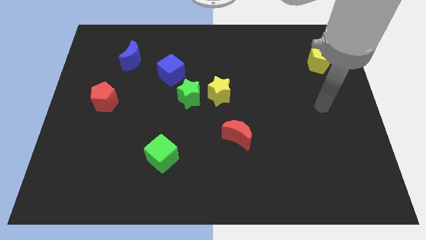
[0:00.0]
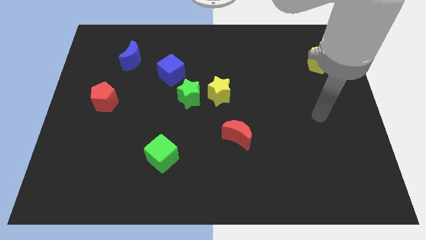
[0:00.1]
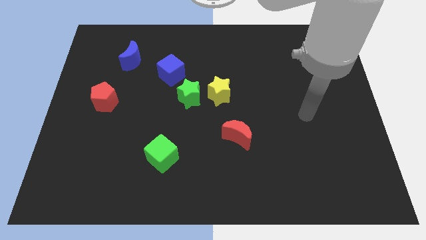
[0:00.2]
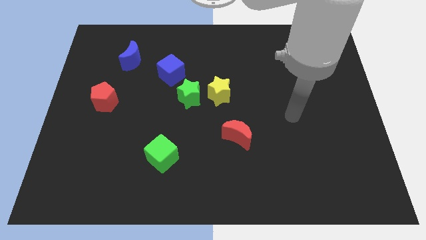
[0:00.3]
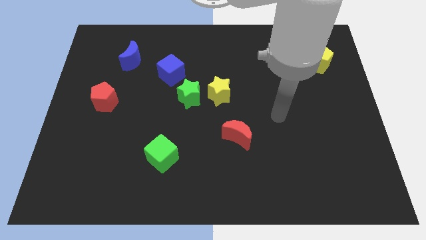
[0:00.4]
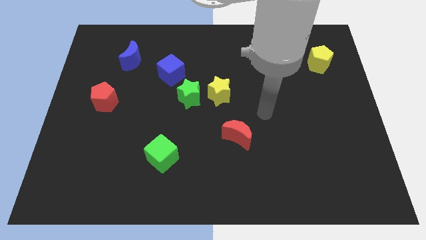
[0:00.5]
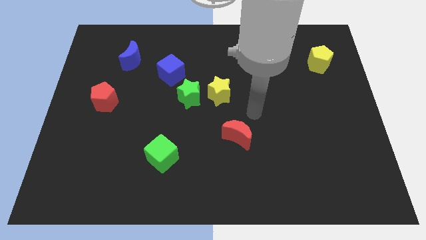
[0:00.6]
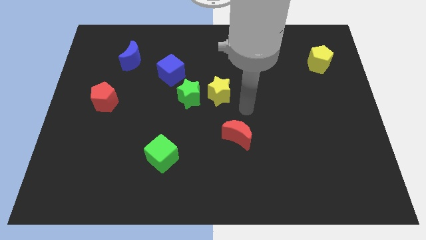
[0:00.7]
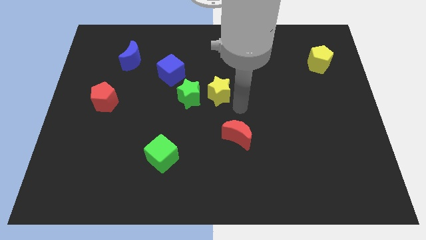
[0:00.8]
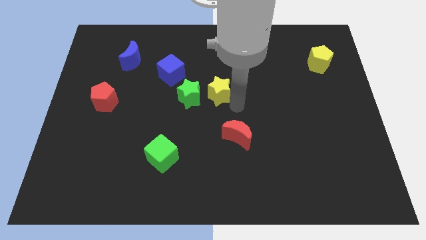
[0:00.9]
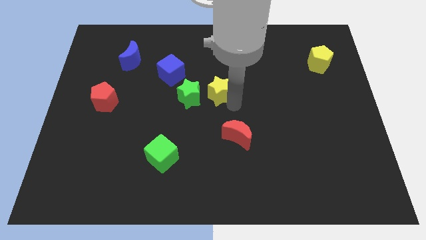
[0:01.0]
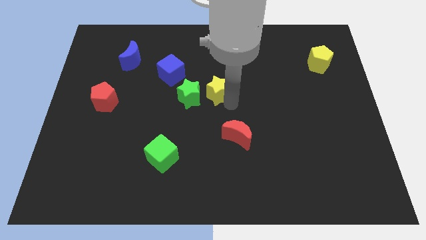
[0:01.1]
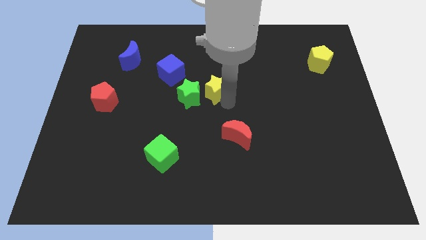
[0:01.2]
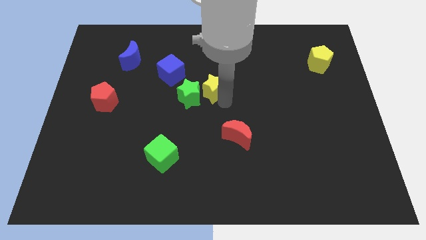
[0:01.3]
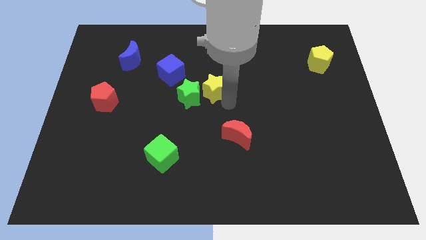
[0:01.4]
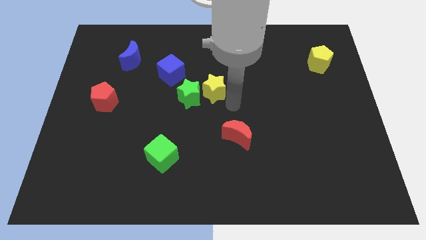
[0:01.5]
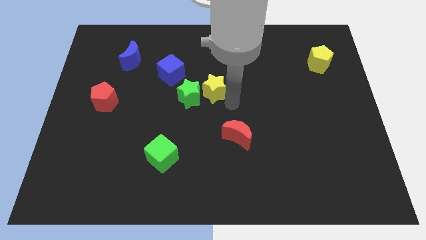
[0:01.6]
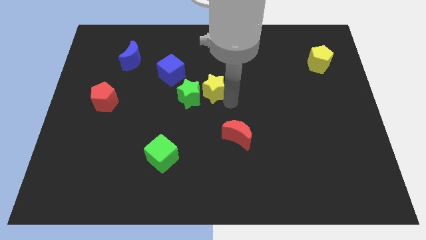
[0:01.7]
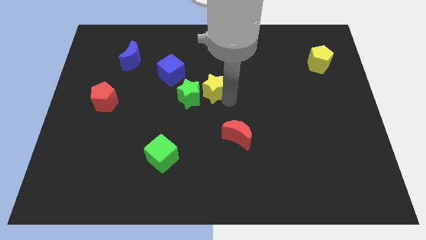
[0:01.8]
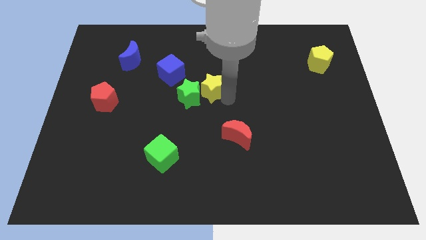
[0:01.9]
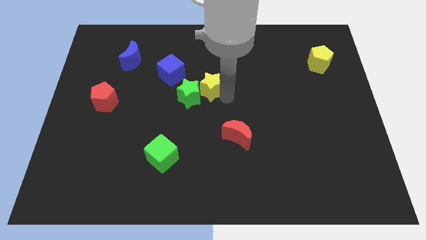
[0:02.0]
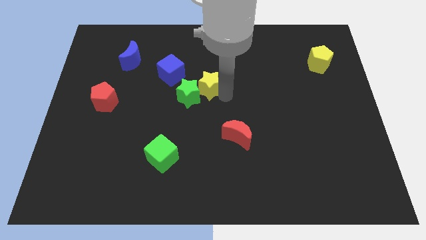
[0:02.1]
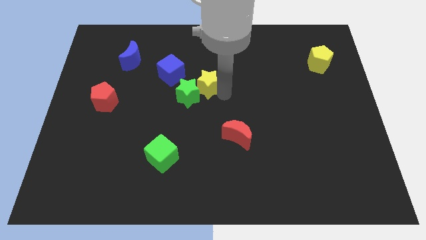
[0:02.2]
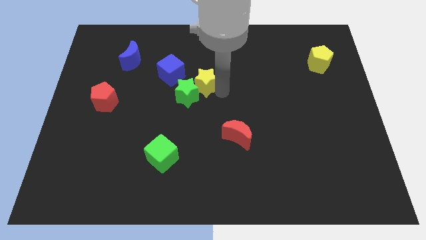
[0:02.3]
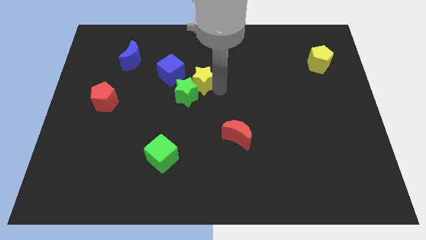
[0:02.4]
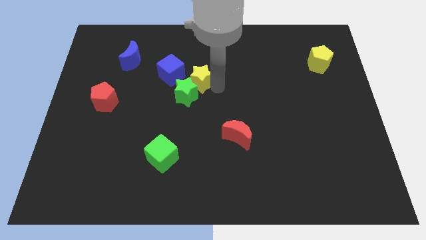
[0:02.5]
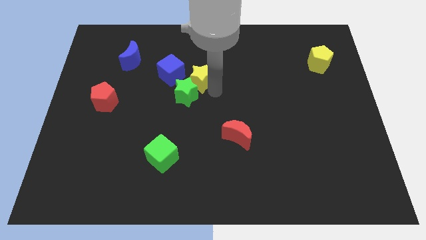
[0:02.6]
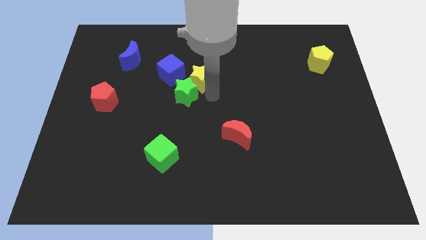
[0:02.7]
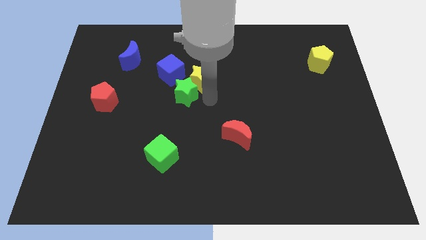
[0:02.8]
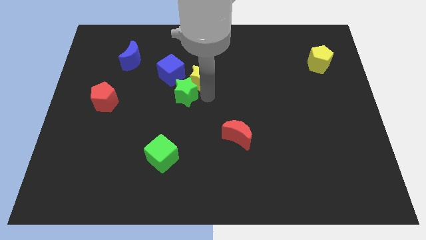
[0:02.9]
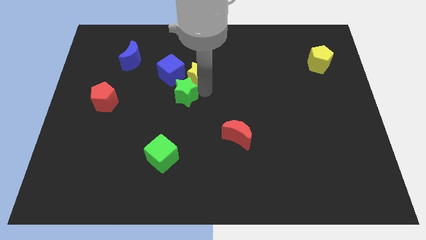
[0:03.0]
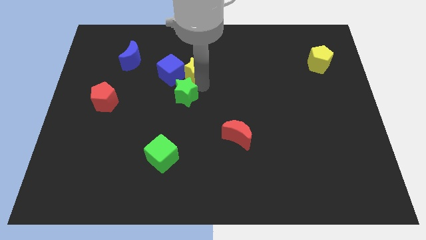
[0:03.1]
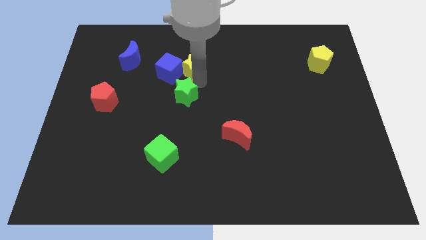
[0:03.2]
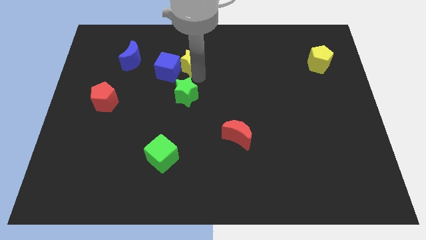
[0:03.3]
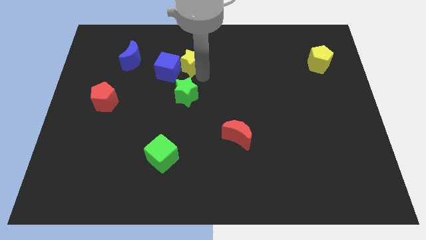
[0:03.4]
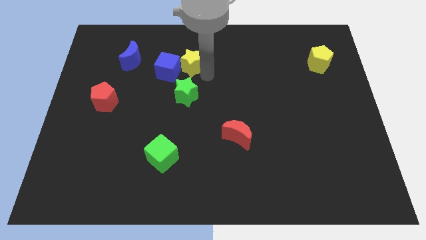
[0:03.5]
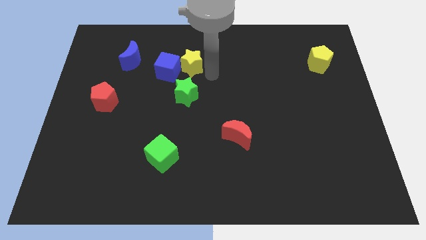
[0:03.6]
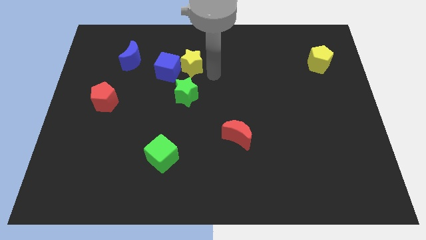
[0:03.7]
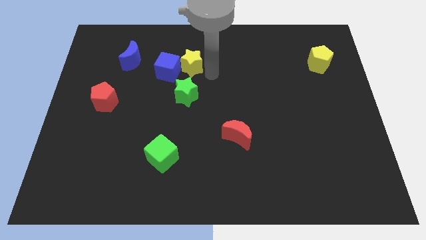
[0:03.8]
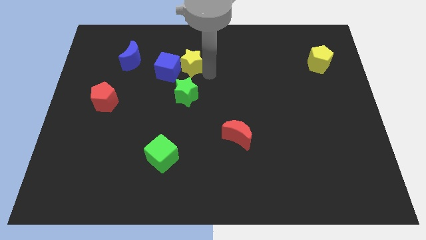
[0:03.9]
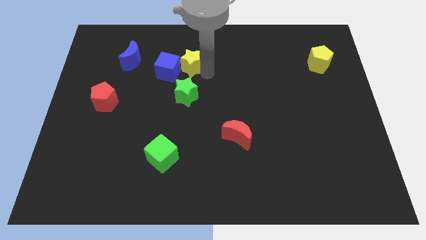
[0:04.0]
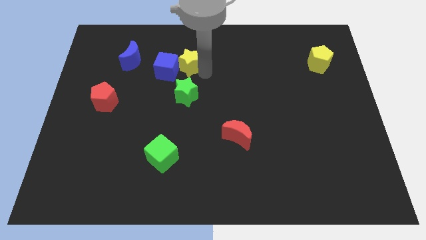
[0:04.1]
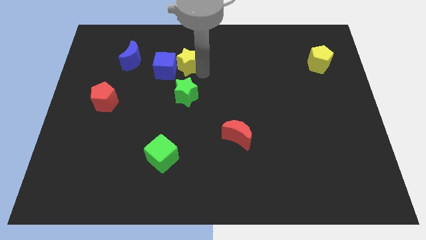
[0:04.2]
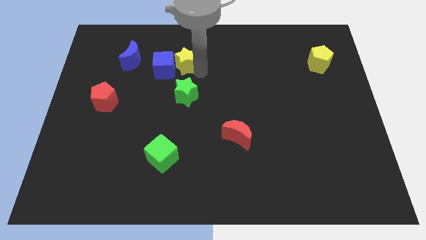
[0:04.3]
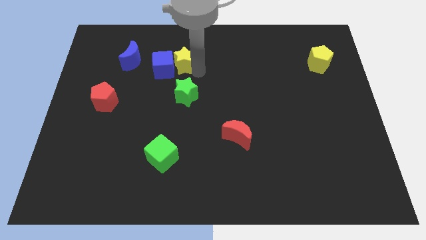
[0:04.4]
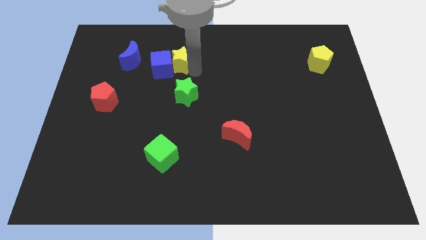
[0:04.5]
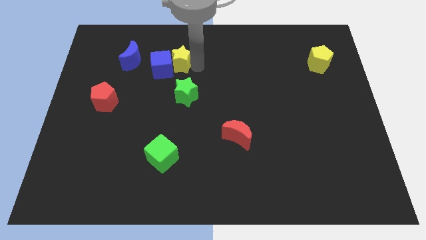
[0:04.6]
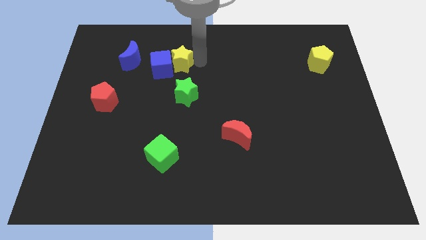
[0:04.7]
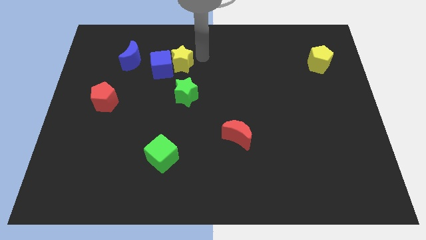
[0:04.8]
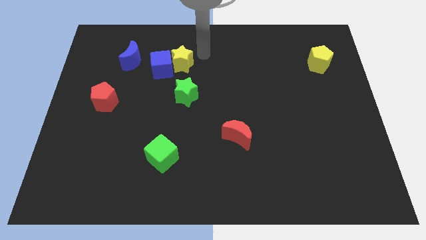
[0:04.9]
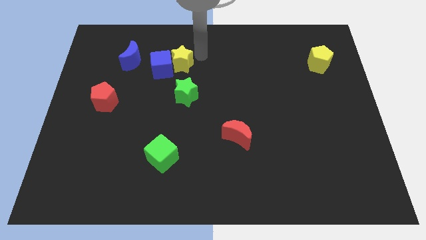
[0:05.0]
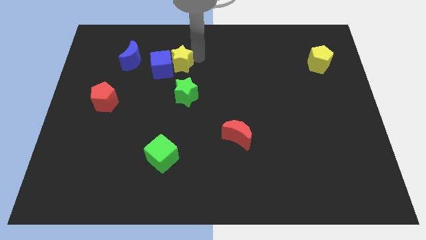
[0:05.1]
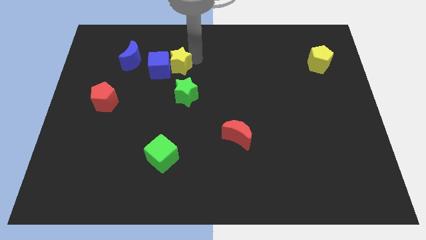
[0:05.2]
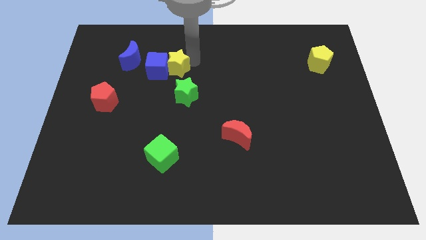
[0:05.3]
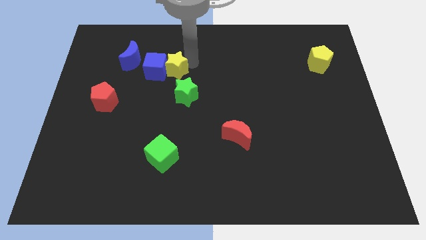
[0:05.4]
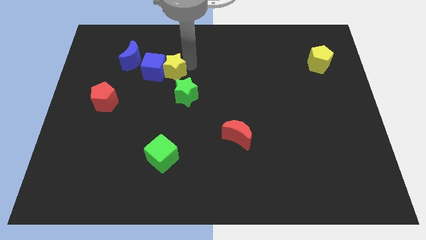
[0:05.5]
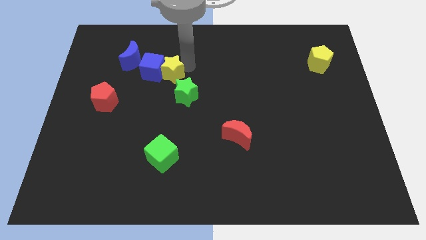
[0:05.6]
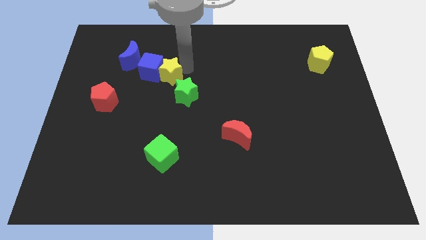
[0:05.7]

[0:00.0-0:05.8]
move the yellow star to the bottom right side of the blue moon
